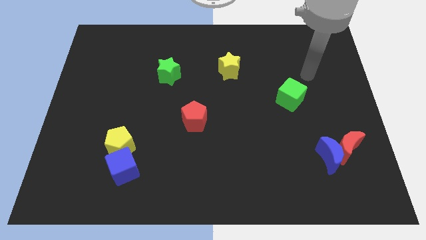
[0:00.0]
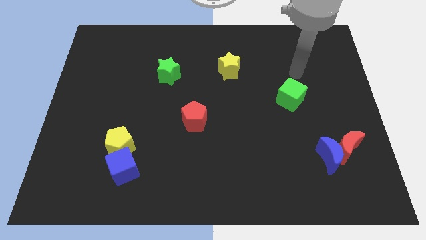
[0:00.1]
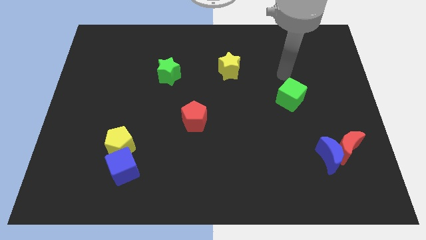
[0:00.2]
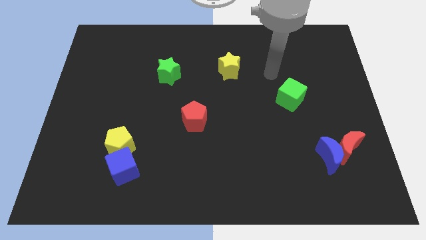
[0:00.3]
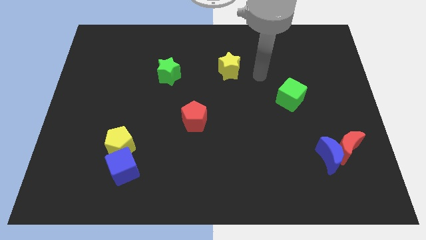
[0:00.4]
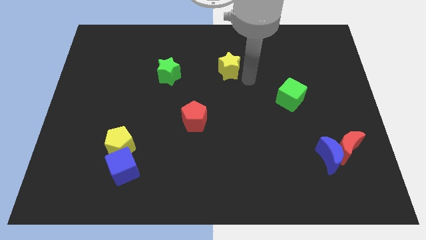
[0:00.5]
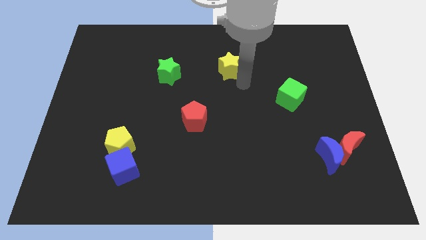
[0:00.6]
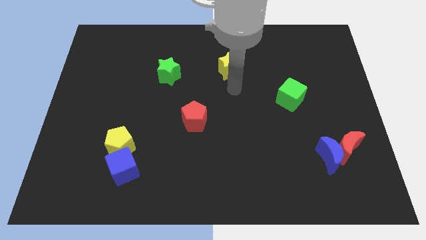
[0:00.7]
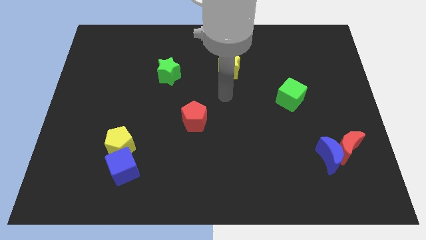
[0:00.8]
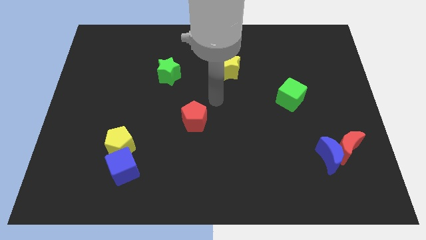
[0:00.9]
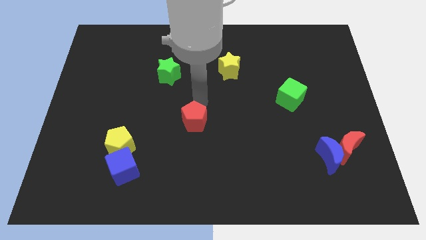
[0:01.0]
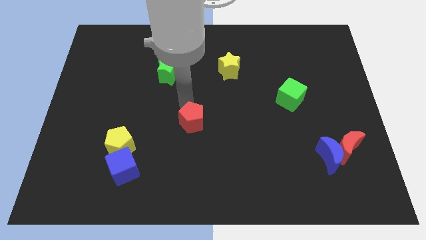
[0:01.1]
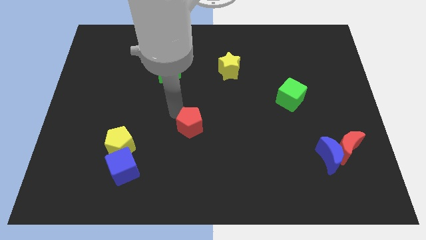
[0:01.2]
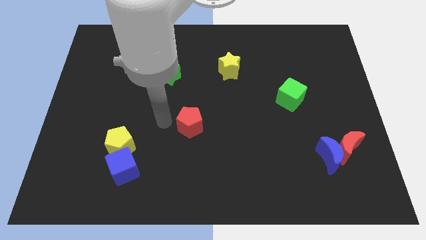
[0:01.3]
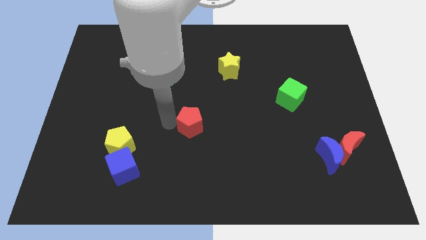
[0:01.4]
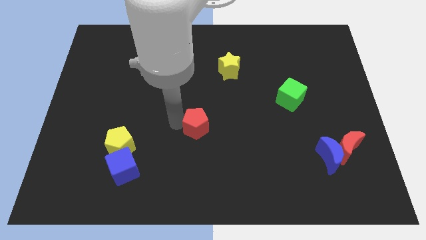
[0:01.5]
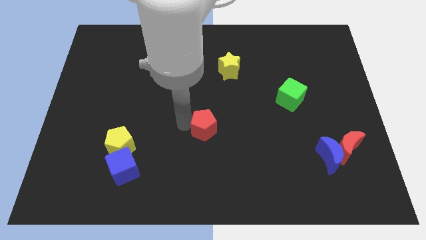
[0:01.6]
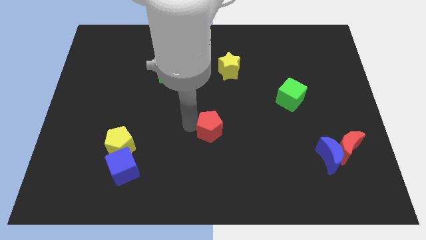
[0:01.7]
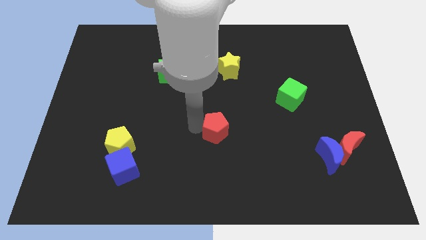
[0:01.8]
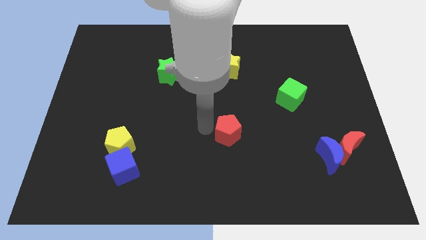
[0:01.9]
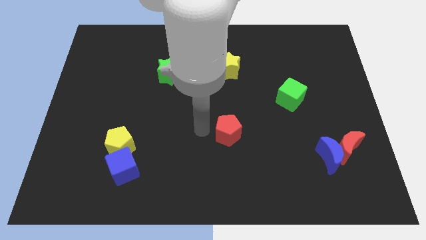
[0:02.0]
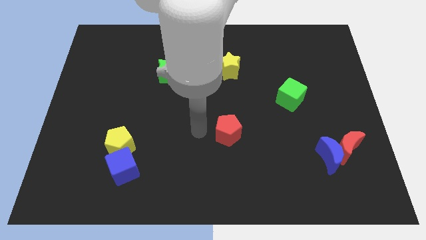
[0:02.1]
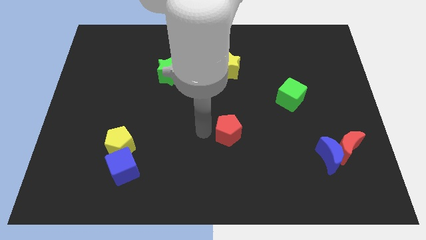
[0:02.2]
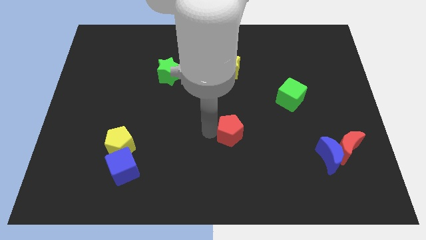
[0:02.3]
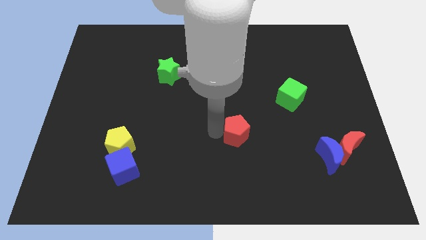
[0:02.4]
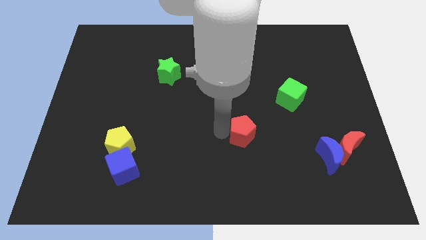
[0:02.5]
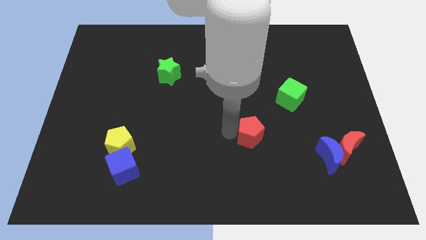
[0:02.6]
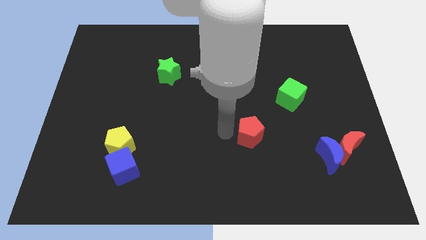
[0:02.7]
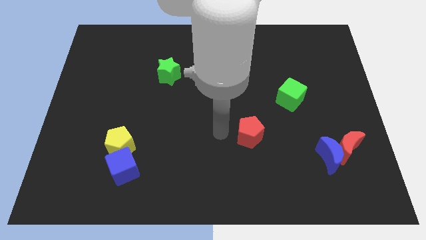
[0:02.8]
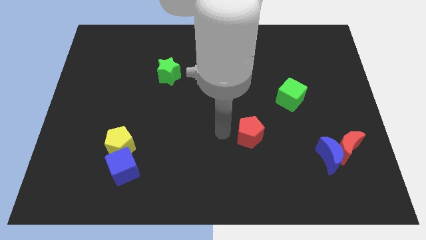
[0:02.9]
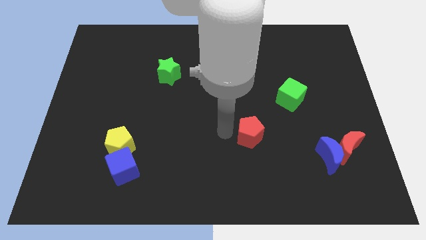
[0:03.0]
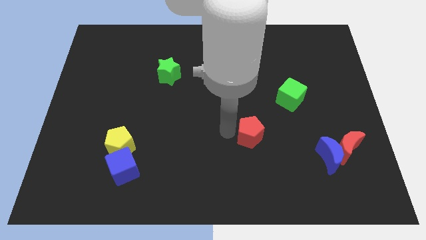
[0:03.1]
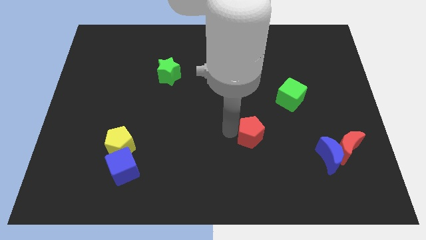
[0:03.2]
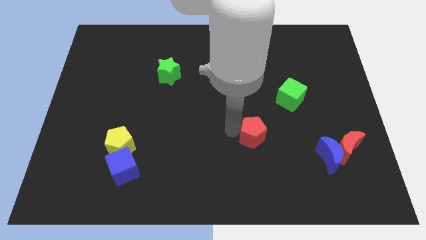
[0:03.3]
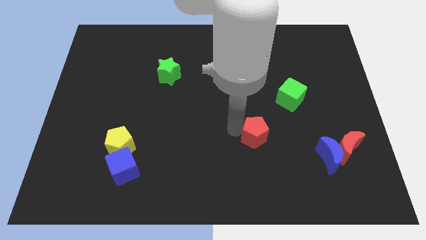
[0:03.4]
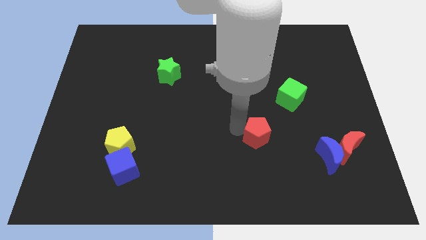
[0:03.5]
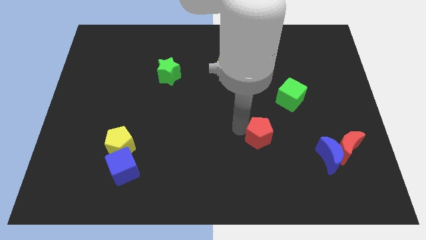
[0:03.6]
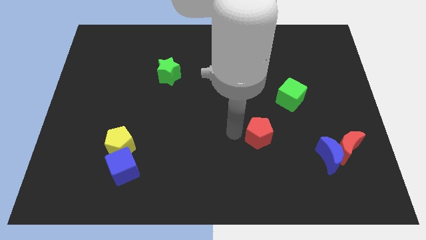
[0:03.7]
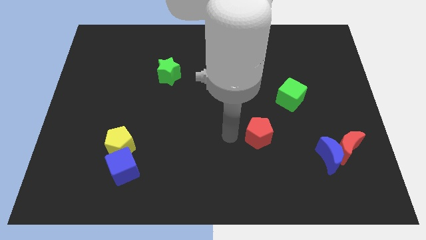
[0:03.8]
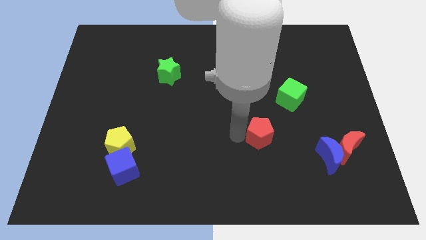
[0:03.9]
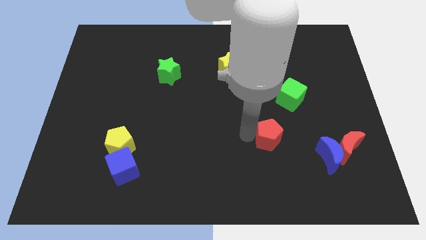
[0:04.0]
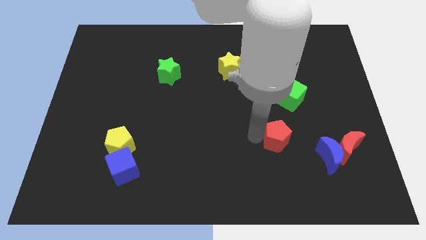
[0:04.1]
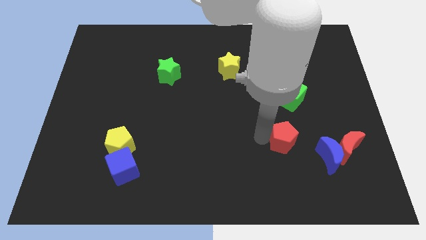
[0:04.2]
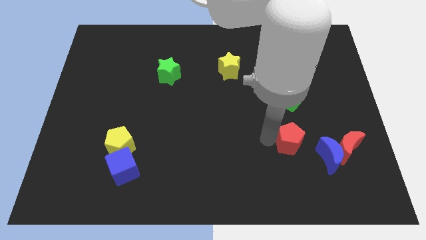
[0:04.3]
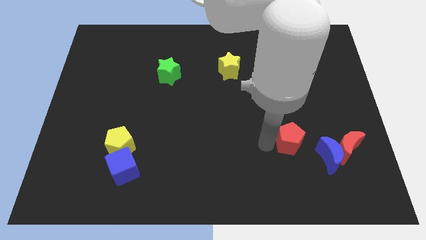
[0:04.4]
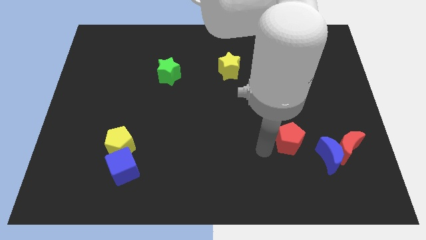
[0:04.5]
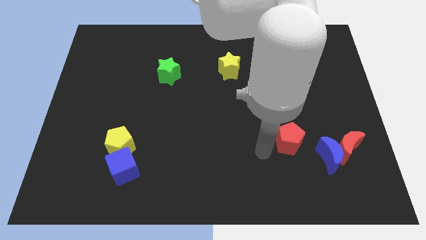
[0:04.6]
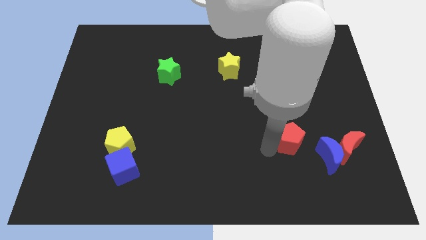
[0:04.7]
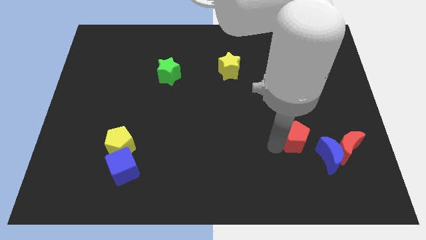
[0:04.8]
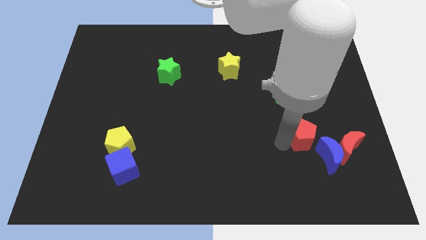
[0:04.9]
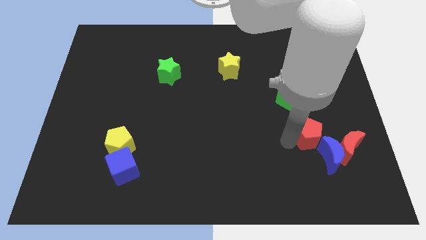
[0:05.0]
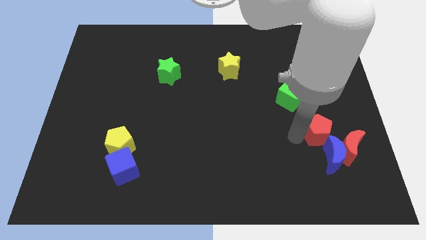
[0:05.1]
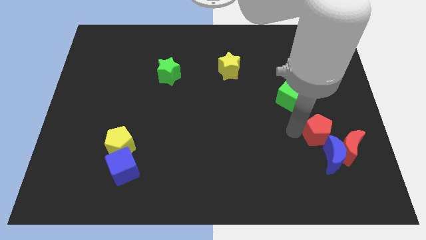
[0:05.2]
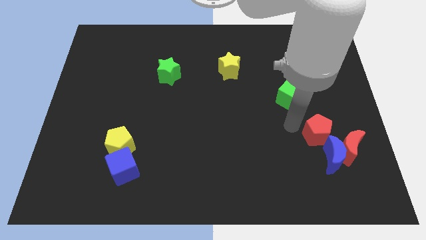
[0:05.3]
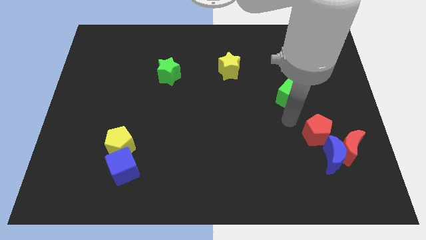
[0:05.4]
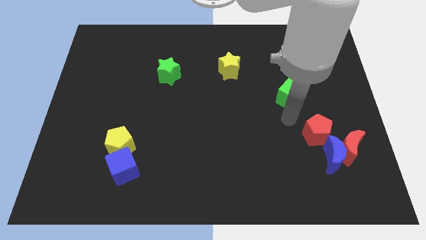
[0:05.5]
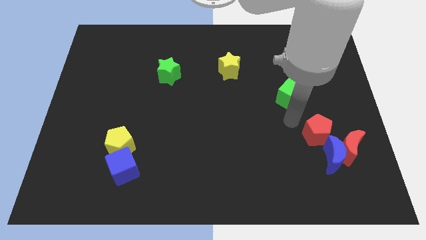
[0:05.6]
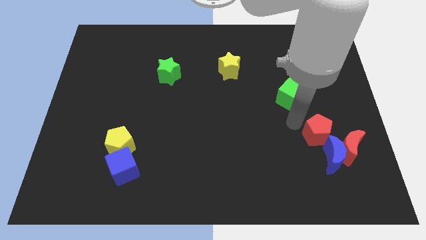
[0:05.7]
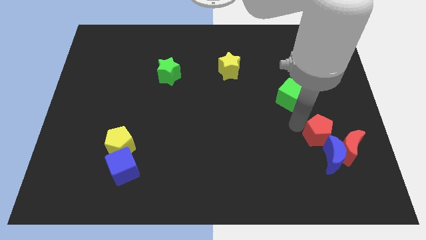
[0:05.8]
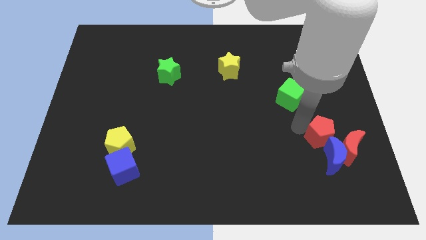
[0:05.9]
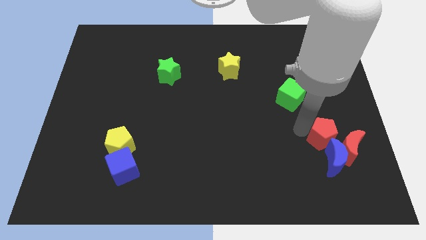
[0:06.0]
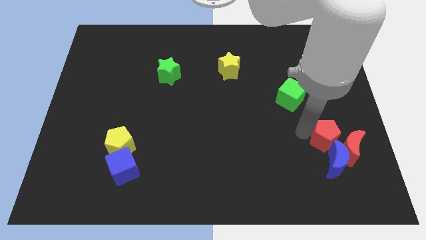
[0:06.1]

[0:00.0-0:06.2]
move the red pentagon to the red moon

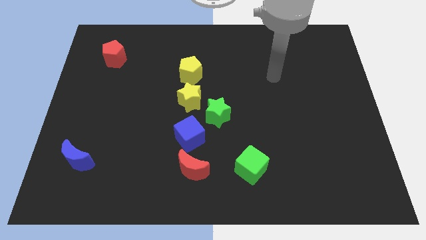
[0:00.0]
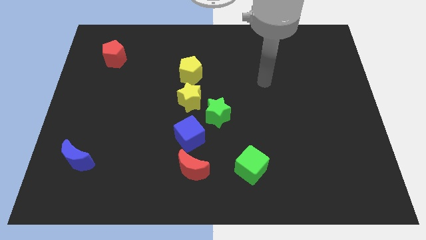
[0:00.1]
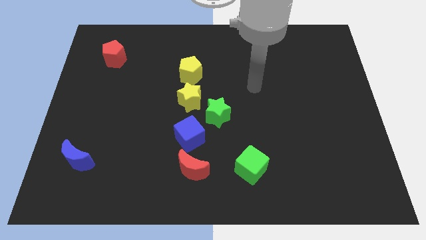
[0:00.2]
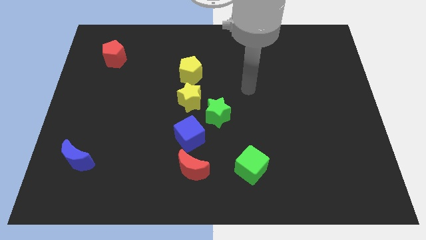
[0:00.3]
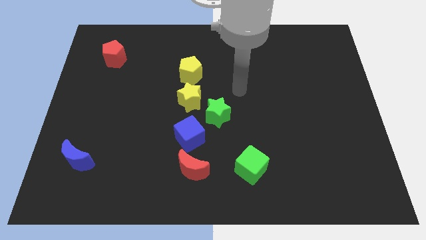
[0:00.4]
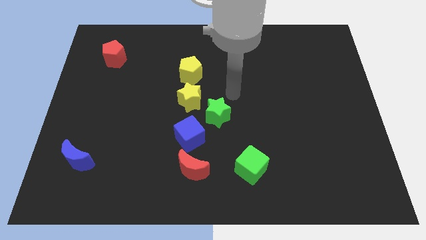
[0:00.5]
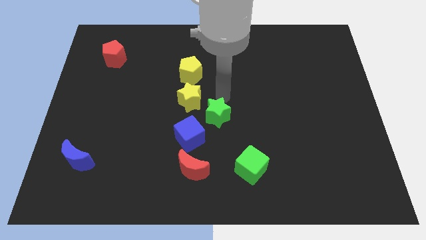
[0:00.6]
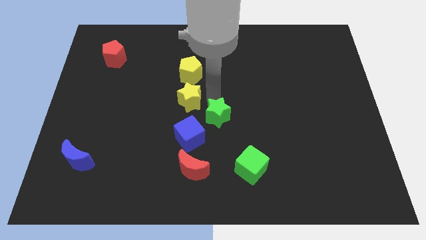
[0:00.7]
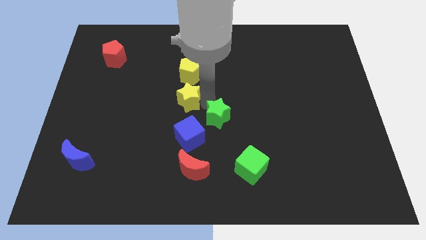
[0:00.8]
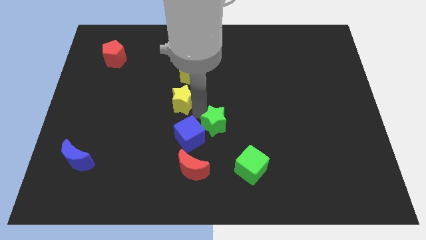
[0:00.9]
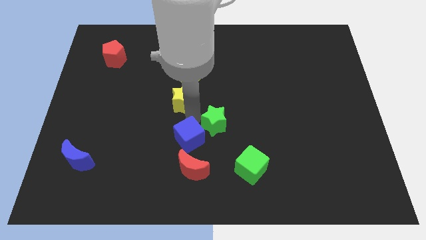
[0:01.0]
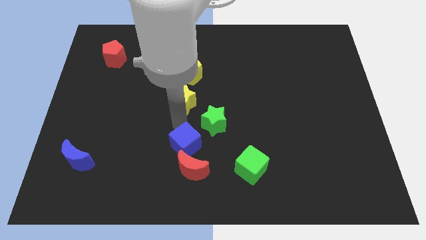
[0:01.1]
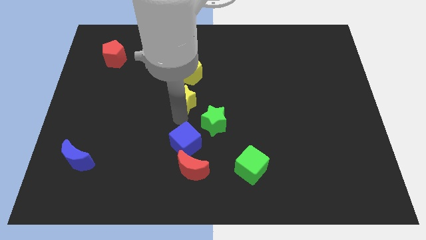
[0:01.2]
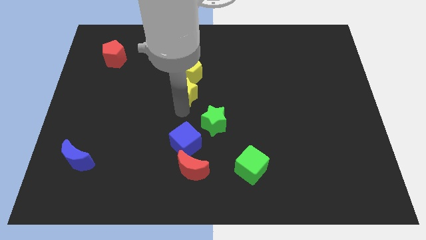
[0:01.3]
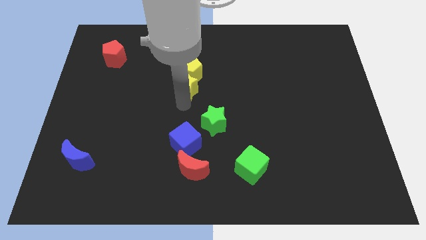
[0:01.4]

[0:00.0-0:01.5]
push the yellow star close to the yellow pentagon
